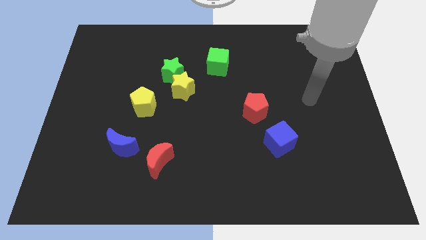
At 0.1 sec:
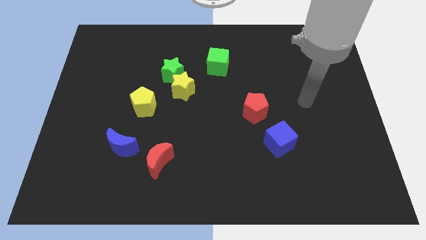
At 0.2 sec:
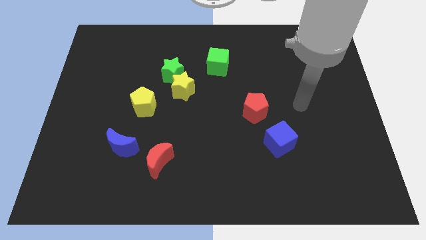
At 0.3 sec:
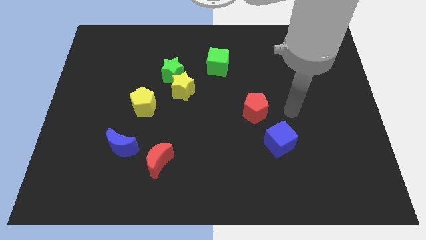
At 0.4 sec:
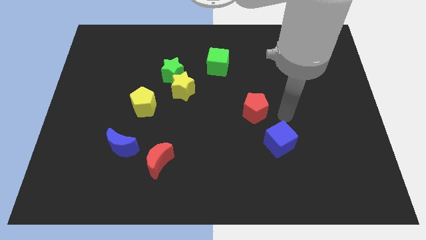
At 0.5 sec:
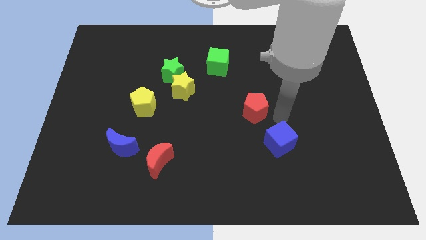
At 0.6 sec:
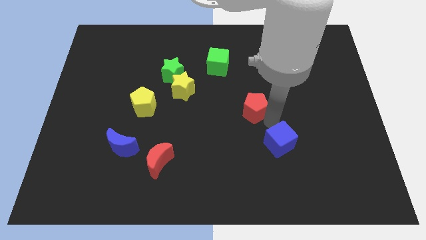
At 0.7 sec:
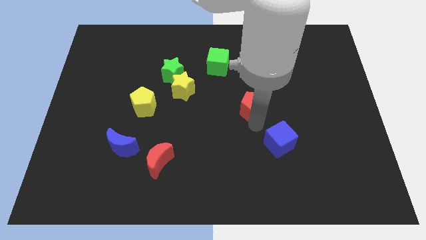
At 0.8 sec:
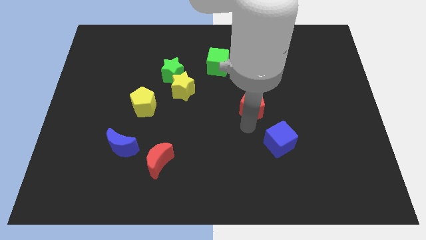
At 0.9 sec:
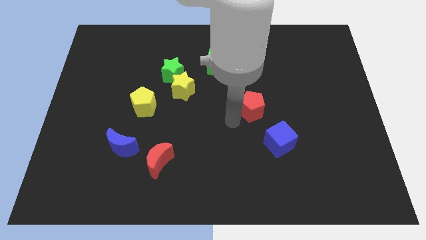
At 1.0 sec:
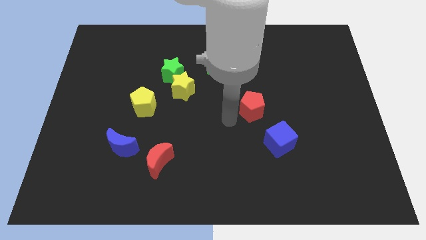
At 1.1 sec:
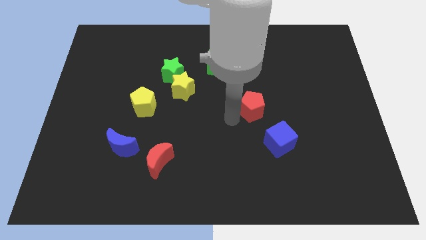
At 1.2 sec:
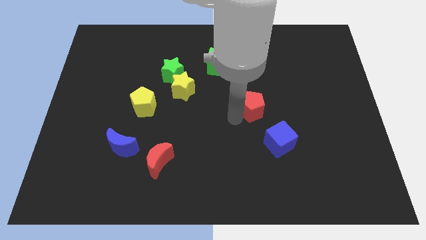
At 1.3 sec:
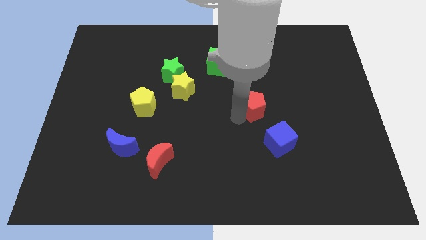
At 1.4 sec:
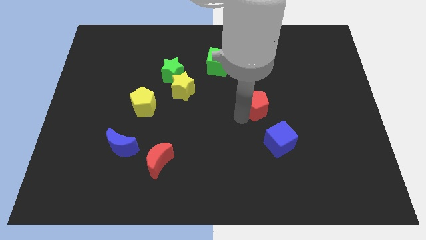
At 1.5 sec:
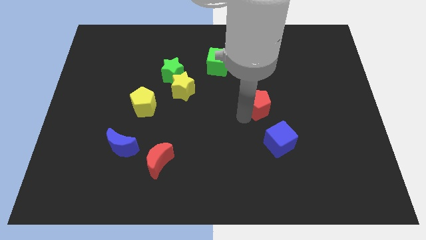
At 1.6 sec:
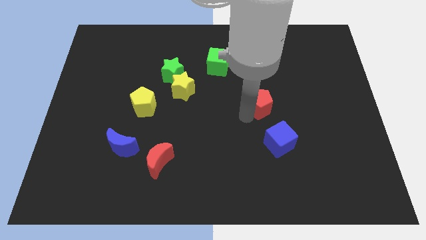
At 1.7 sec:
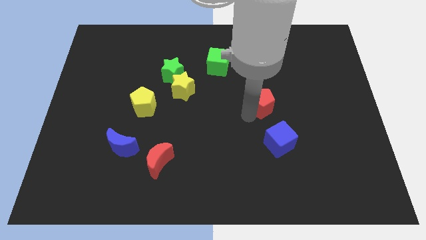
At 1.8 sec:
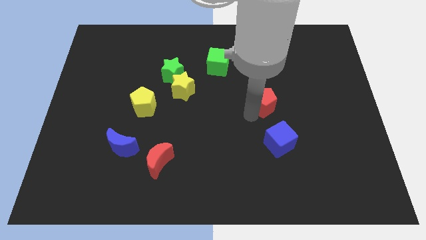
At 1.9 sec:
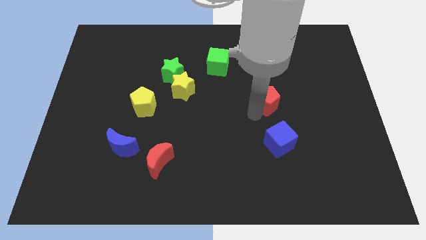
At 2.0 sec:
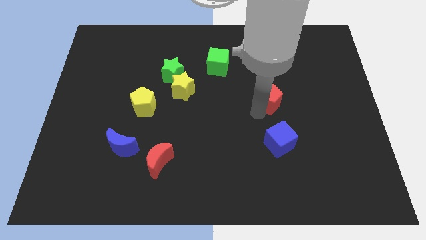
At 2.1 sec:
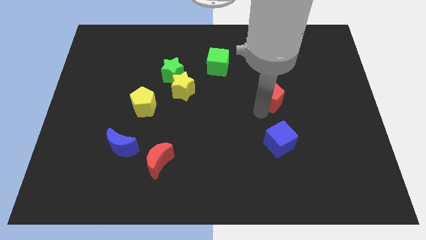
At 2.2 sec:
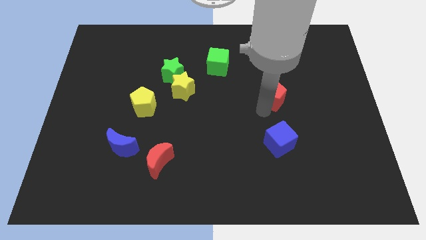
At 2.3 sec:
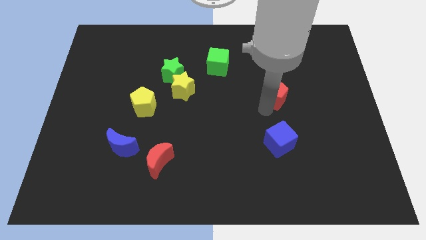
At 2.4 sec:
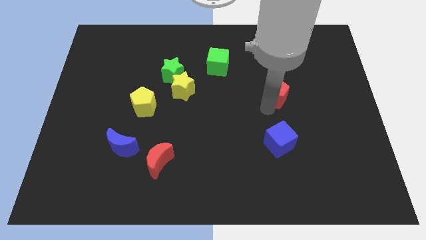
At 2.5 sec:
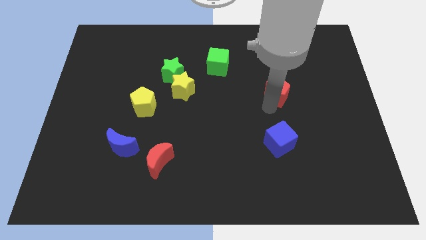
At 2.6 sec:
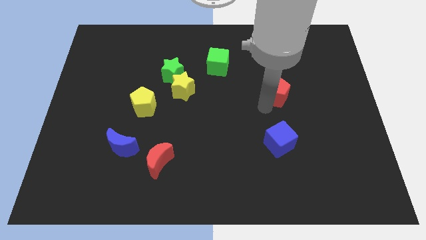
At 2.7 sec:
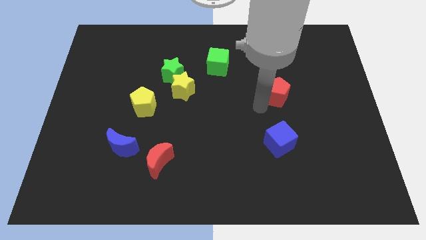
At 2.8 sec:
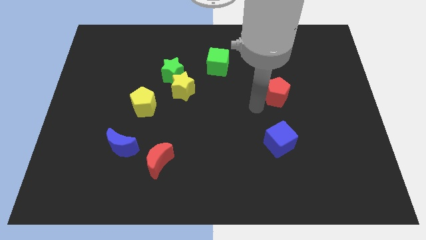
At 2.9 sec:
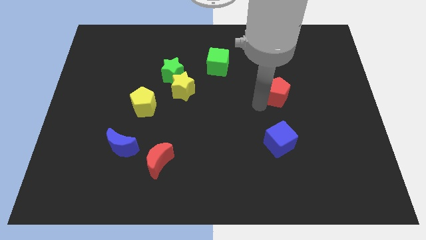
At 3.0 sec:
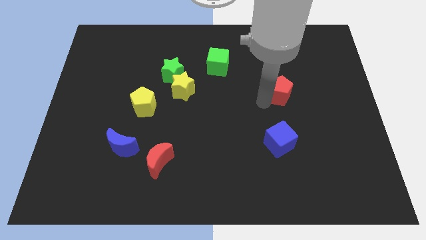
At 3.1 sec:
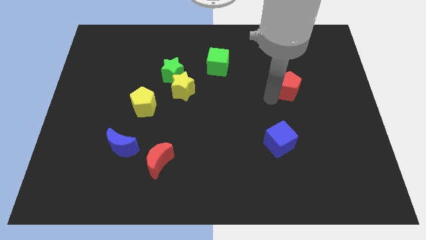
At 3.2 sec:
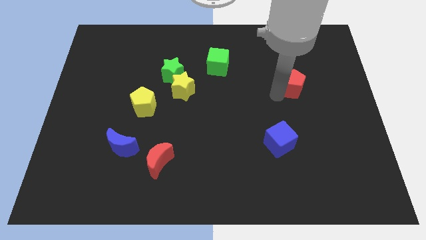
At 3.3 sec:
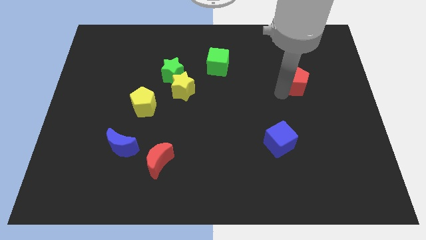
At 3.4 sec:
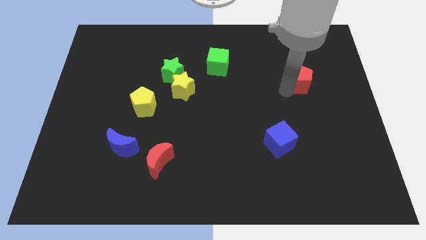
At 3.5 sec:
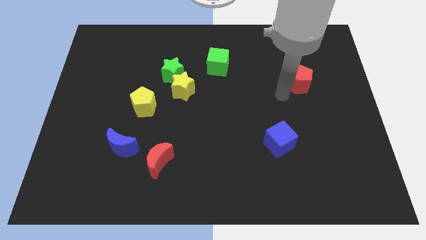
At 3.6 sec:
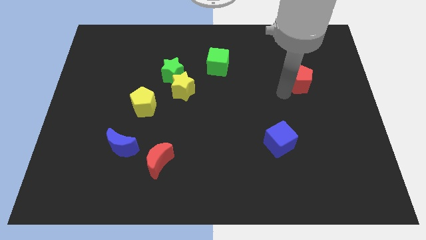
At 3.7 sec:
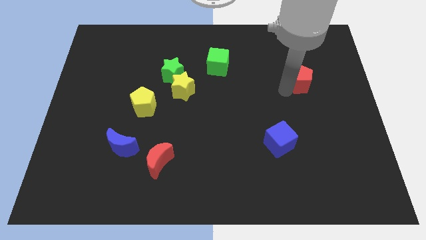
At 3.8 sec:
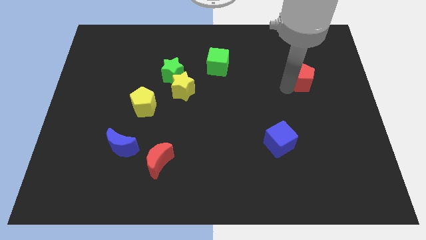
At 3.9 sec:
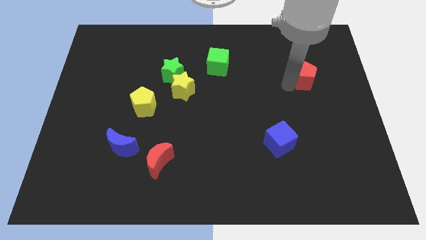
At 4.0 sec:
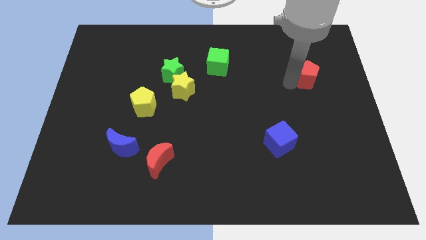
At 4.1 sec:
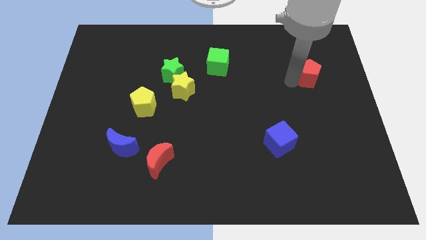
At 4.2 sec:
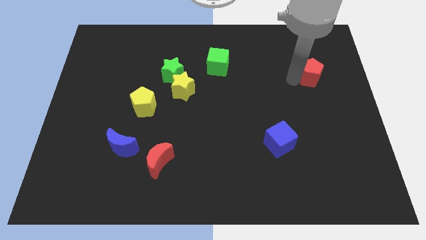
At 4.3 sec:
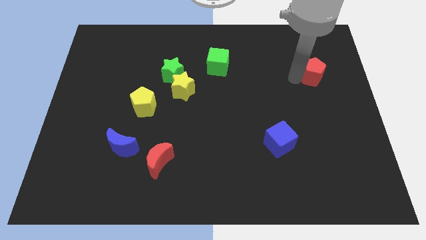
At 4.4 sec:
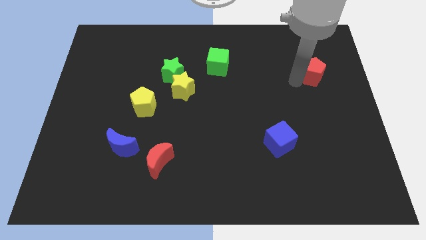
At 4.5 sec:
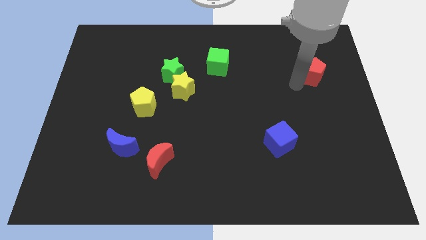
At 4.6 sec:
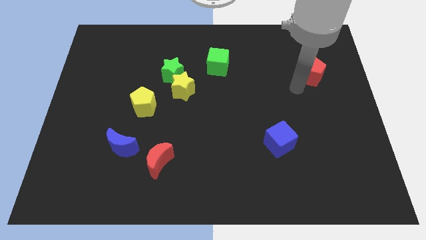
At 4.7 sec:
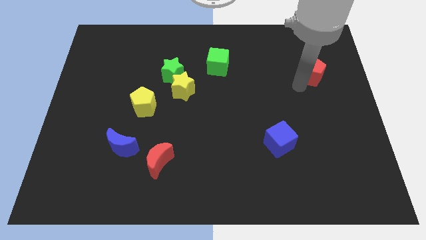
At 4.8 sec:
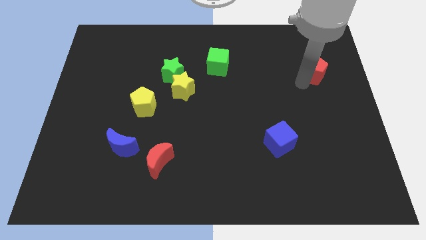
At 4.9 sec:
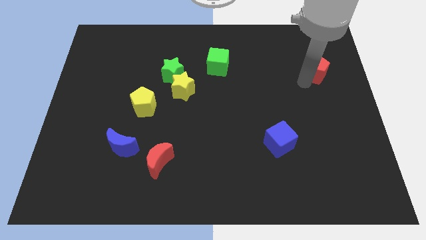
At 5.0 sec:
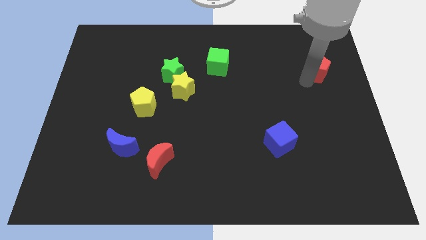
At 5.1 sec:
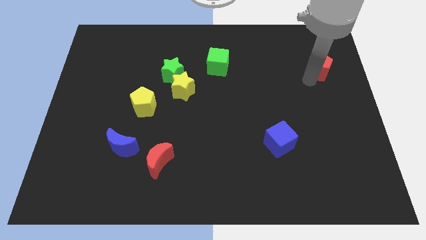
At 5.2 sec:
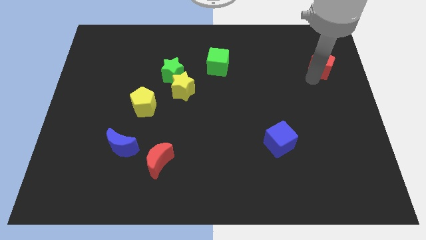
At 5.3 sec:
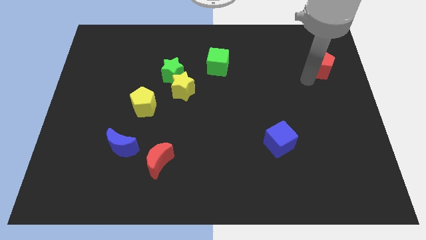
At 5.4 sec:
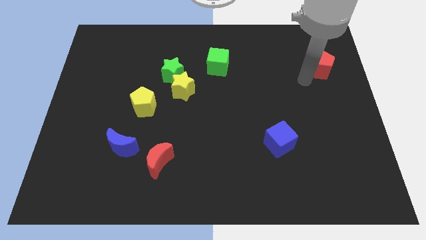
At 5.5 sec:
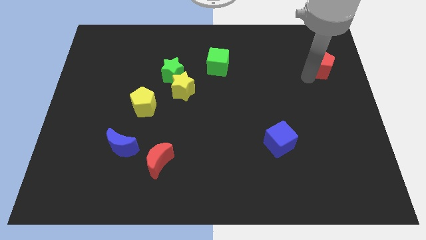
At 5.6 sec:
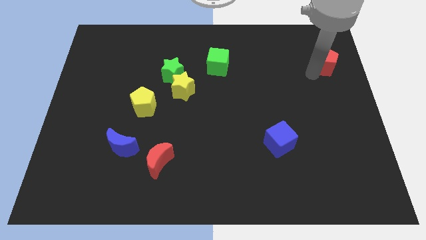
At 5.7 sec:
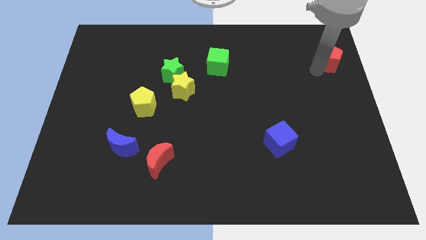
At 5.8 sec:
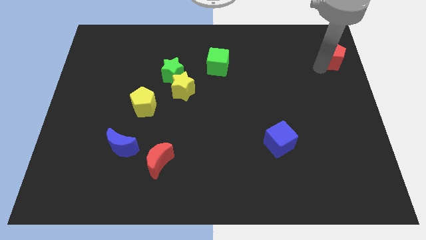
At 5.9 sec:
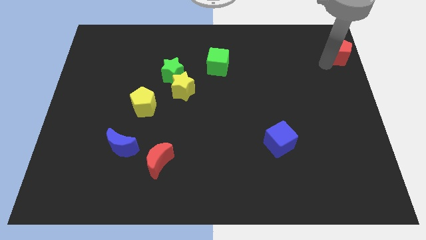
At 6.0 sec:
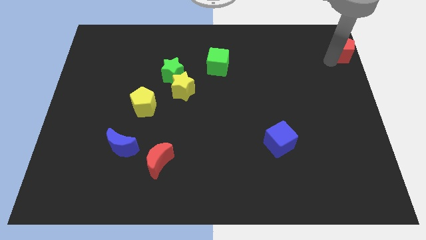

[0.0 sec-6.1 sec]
put the red pentagon to the top right

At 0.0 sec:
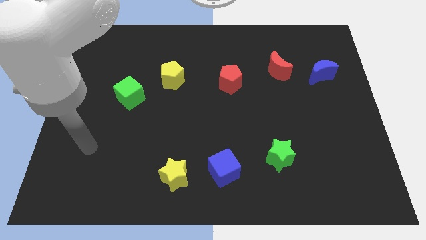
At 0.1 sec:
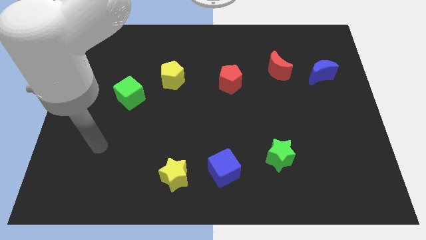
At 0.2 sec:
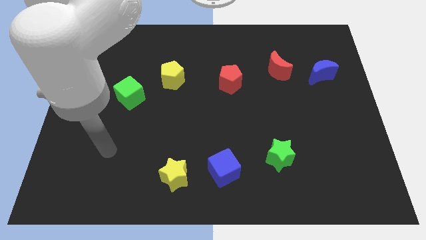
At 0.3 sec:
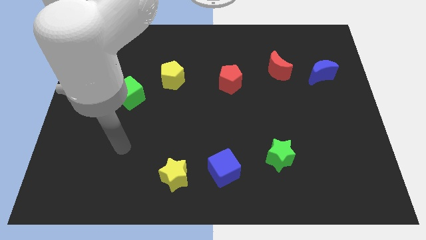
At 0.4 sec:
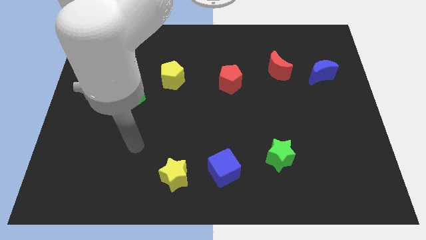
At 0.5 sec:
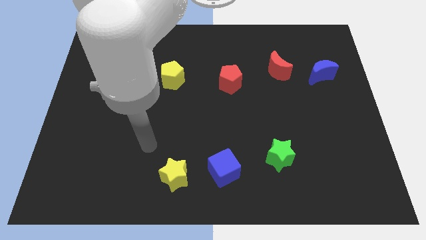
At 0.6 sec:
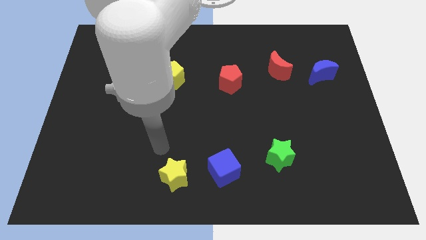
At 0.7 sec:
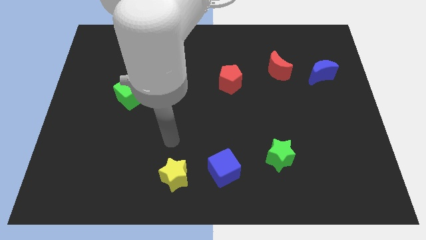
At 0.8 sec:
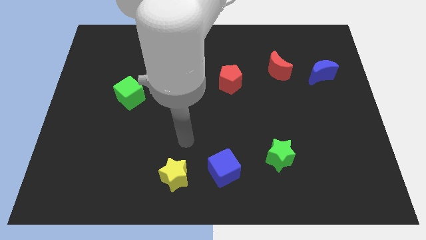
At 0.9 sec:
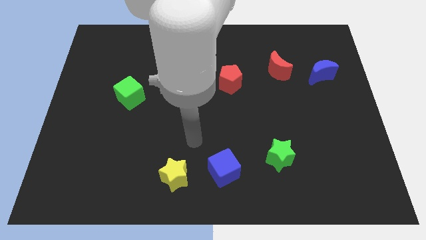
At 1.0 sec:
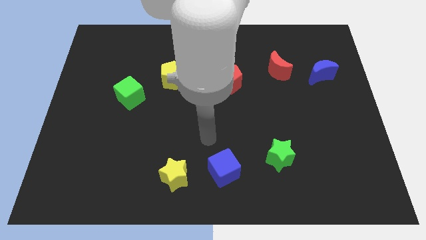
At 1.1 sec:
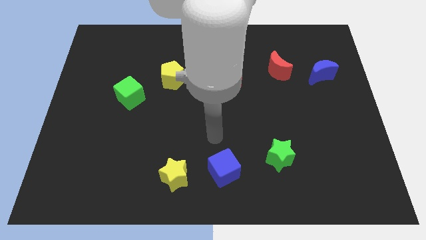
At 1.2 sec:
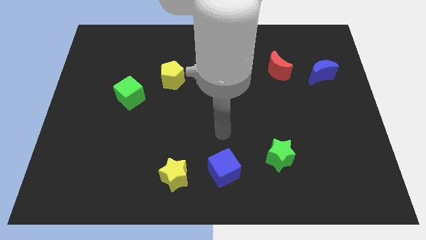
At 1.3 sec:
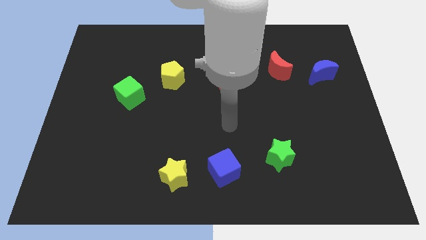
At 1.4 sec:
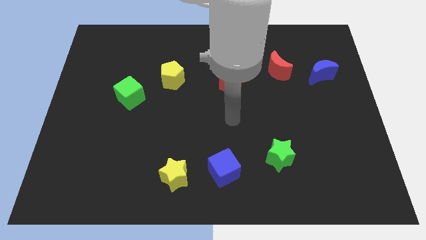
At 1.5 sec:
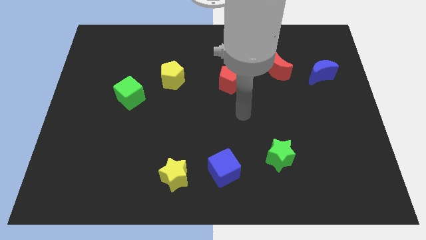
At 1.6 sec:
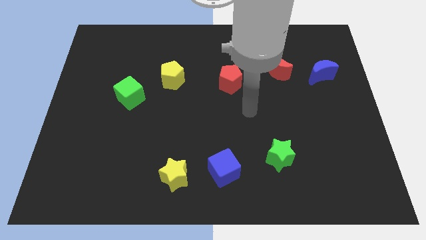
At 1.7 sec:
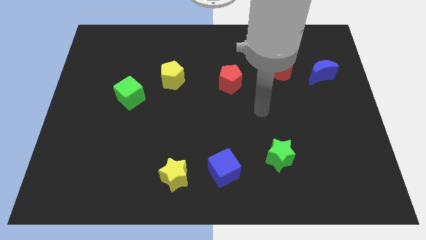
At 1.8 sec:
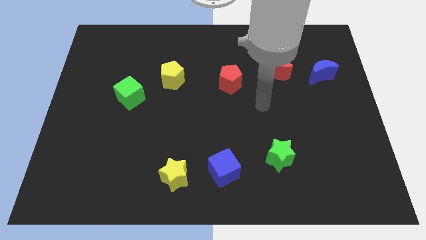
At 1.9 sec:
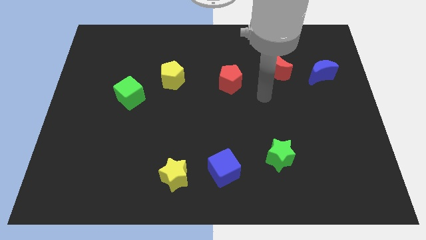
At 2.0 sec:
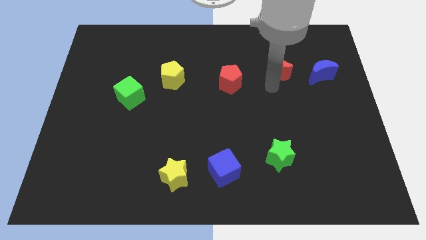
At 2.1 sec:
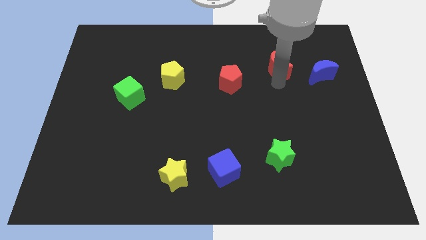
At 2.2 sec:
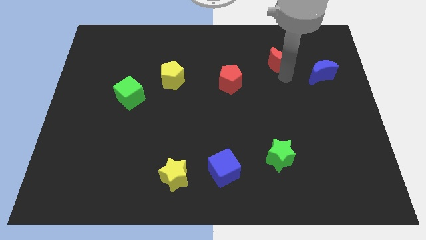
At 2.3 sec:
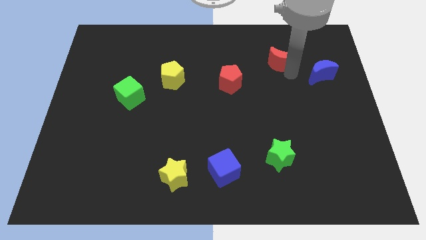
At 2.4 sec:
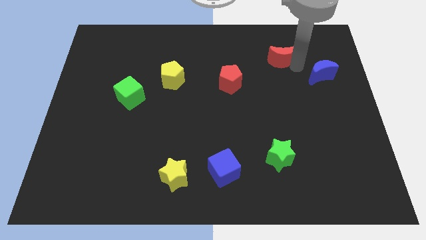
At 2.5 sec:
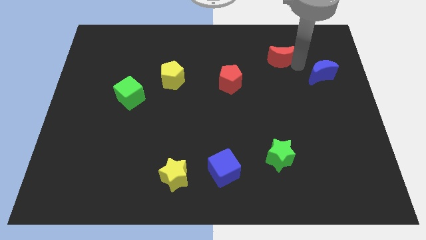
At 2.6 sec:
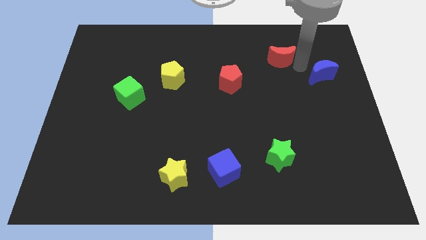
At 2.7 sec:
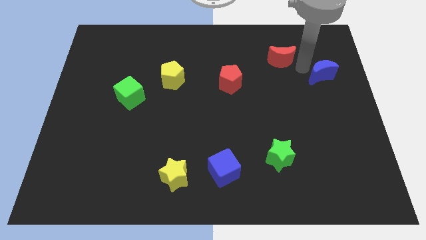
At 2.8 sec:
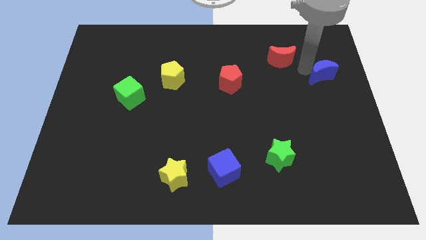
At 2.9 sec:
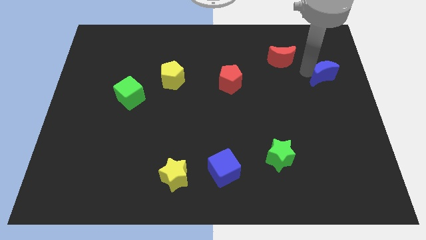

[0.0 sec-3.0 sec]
move the blue moon to the right side of the board
